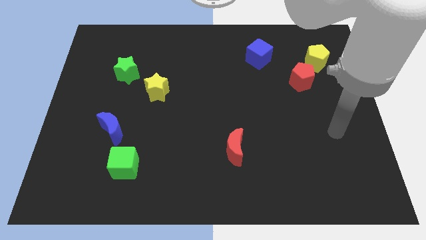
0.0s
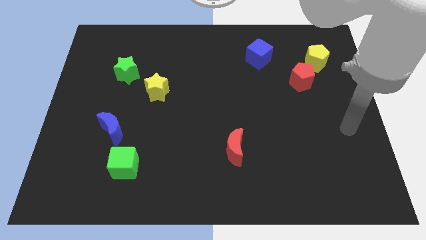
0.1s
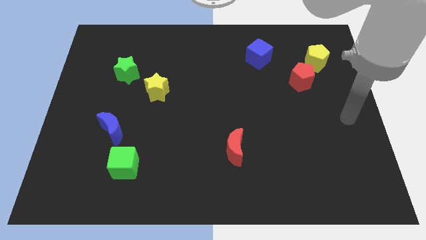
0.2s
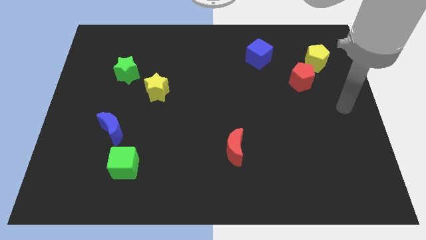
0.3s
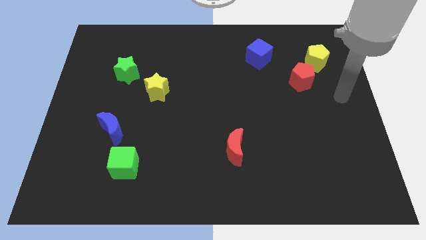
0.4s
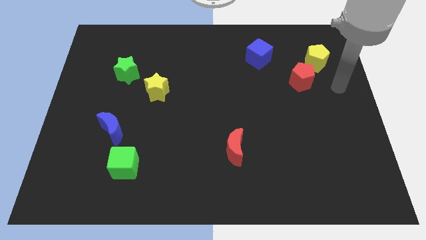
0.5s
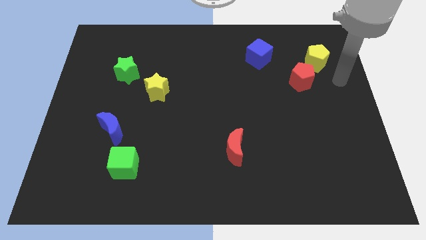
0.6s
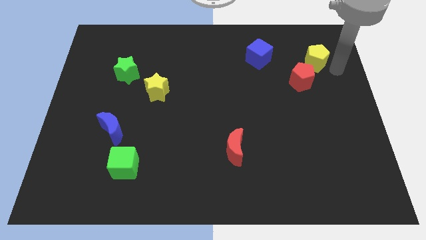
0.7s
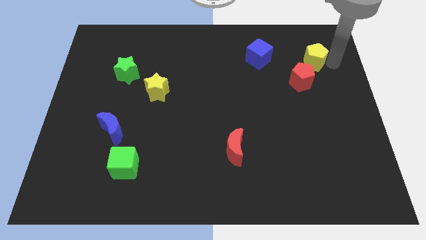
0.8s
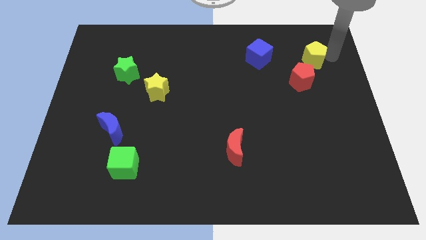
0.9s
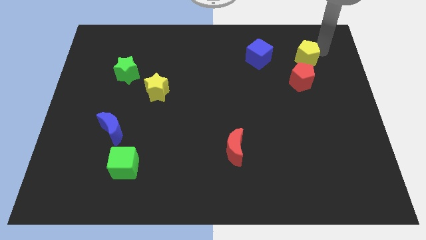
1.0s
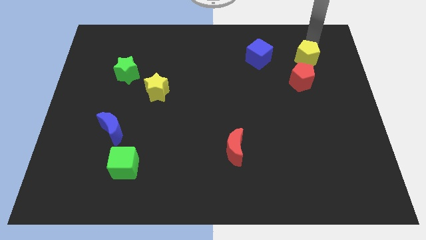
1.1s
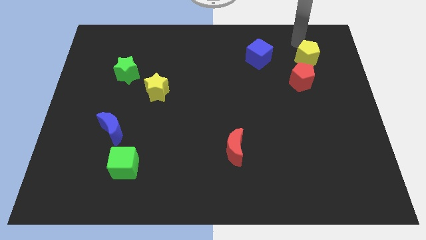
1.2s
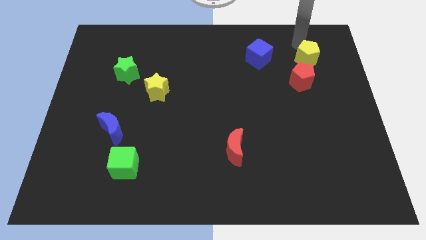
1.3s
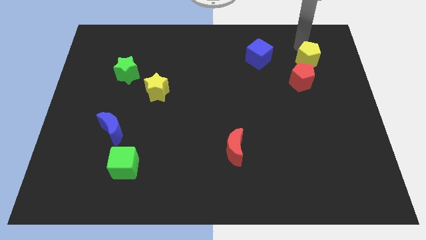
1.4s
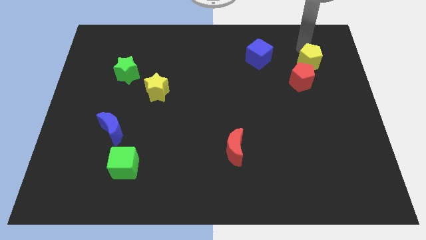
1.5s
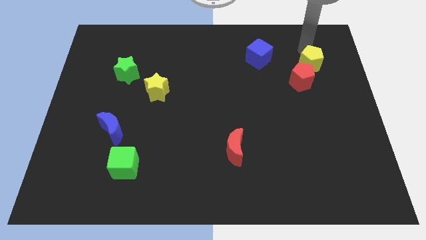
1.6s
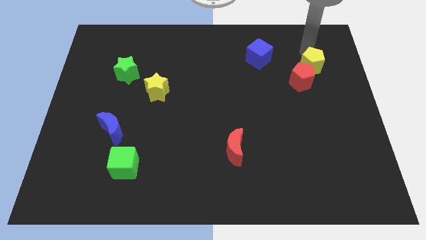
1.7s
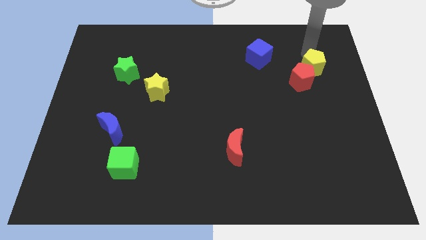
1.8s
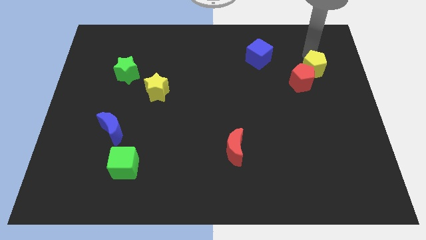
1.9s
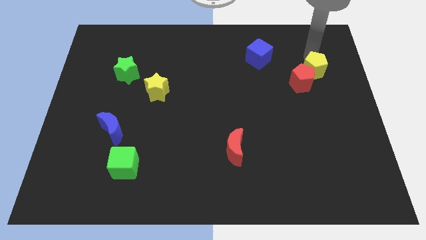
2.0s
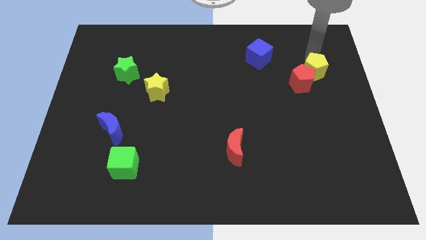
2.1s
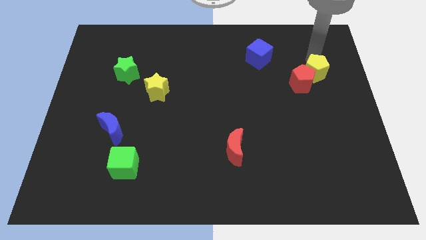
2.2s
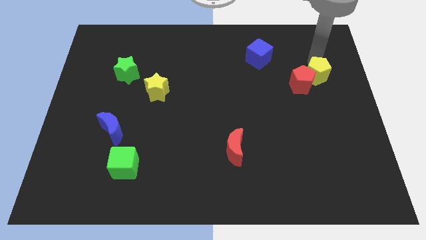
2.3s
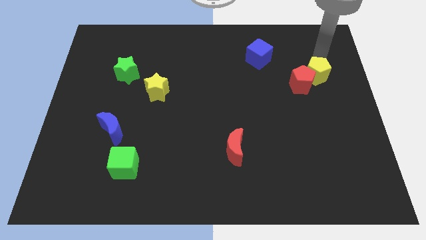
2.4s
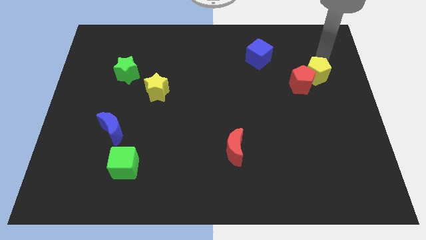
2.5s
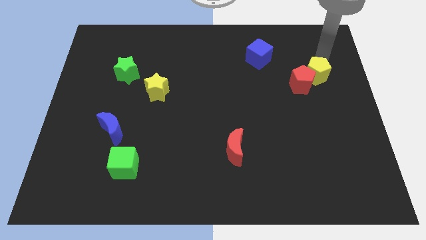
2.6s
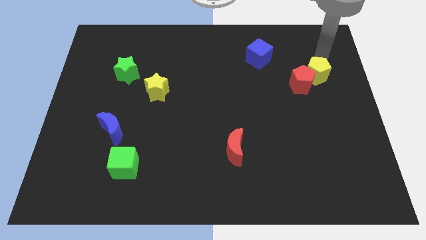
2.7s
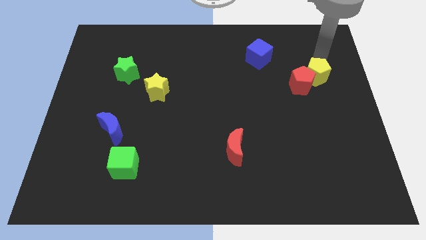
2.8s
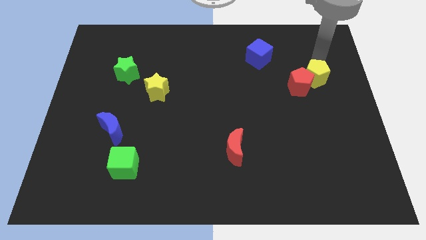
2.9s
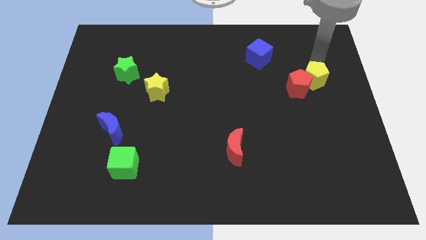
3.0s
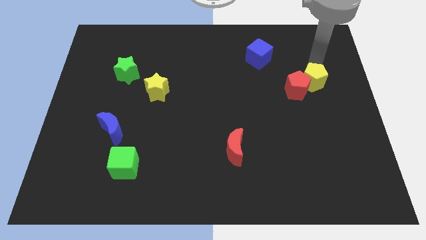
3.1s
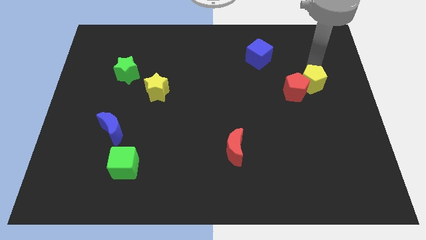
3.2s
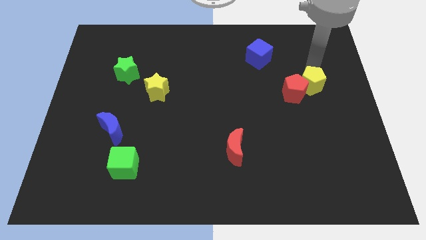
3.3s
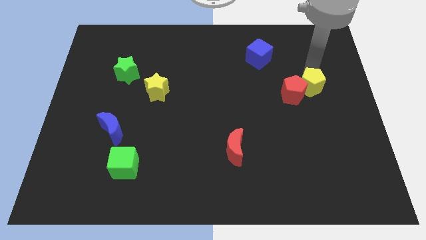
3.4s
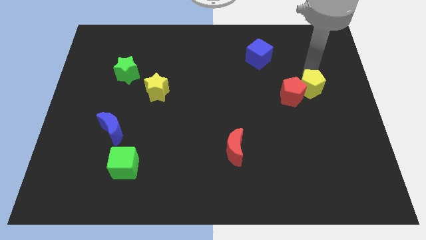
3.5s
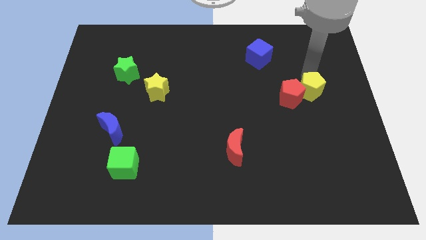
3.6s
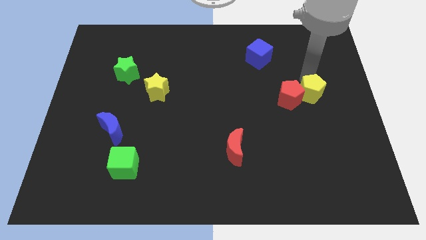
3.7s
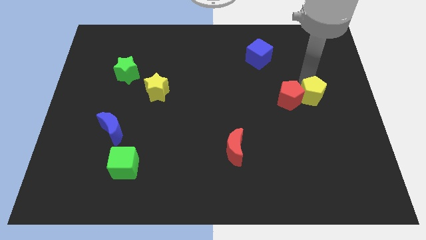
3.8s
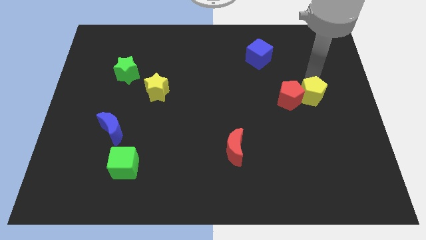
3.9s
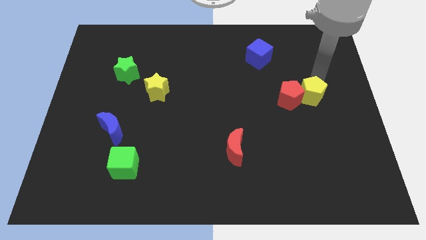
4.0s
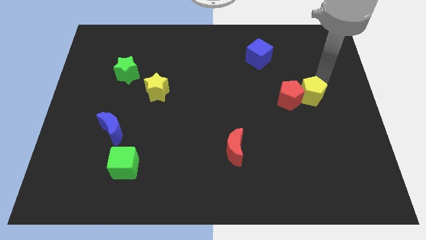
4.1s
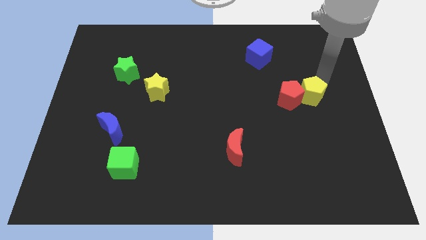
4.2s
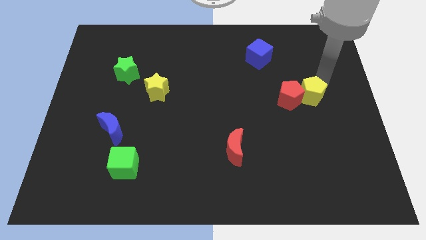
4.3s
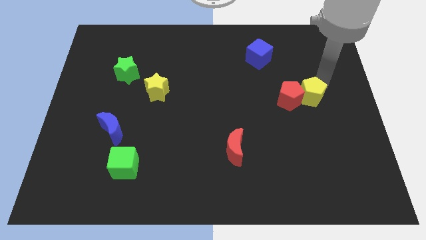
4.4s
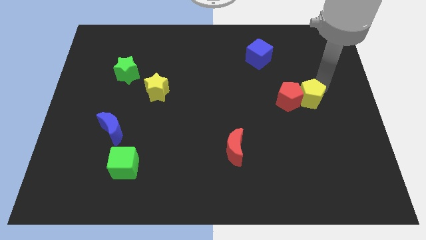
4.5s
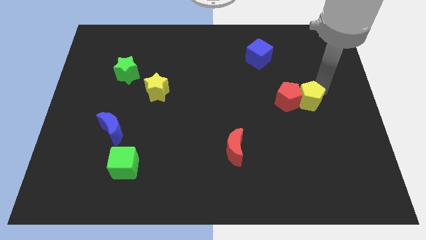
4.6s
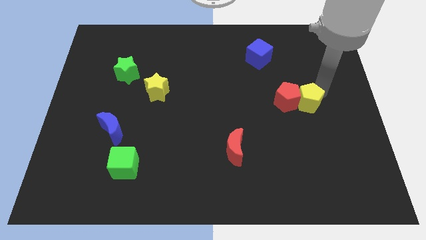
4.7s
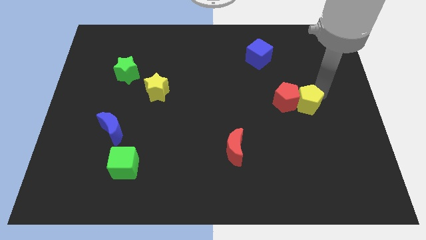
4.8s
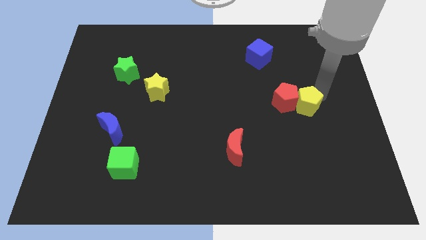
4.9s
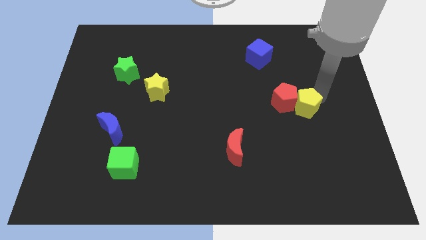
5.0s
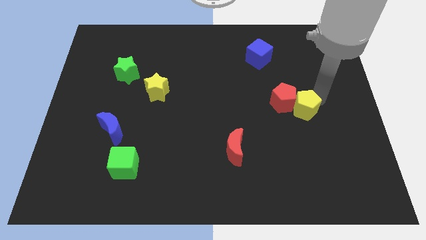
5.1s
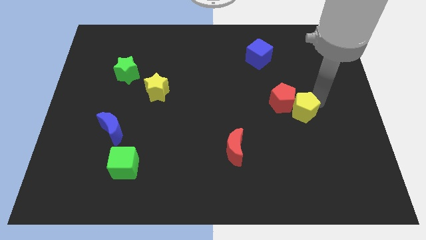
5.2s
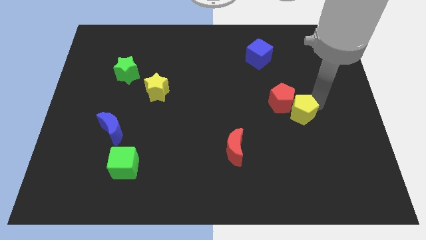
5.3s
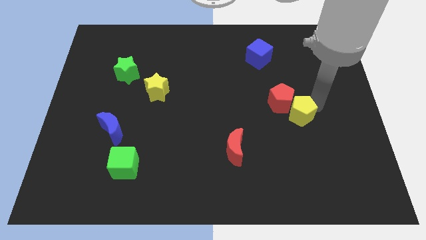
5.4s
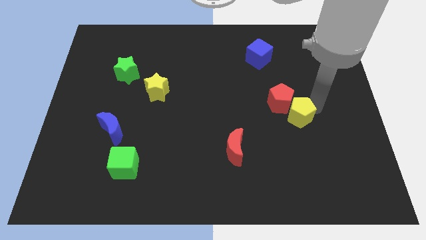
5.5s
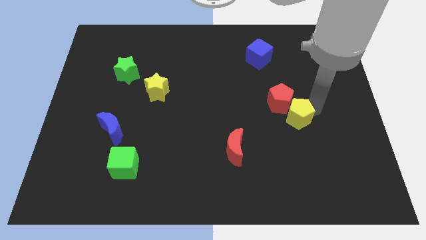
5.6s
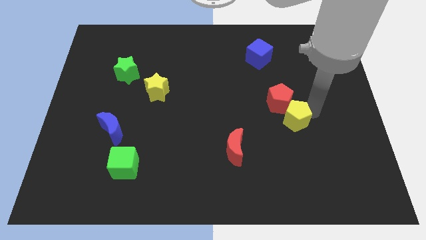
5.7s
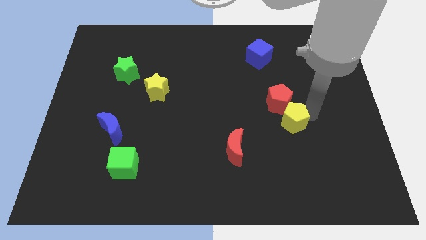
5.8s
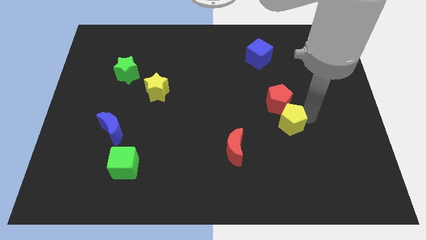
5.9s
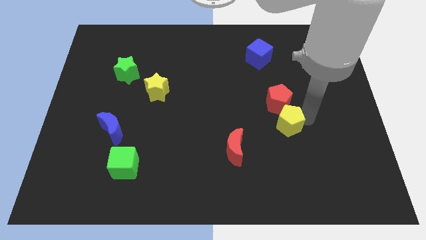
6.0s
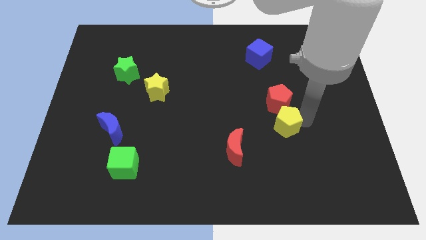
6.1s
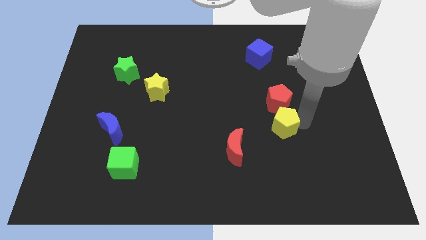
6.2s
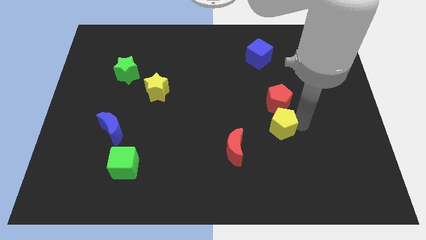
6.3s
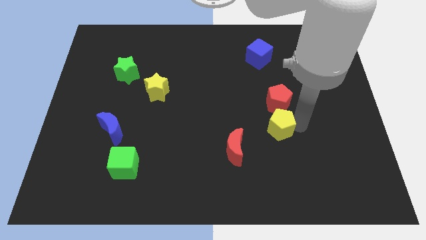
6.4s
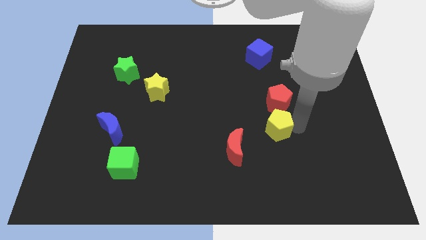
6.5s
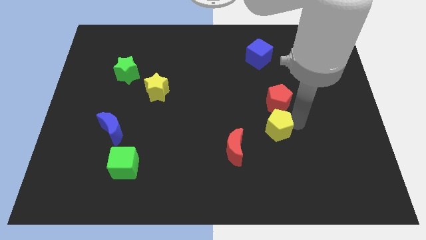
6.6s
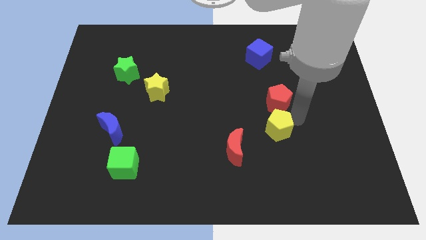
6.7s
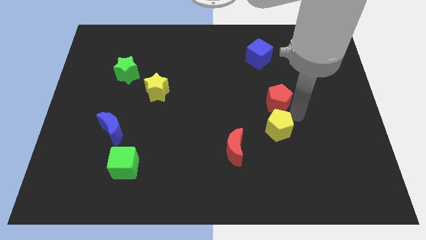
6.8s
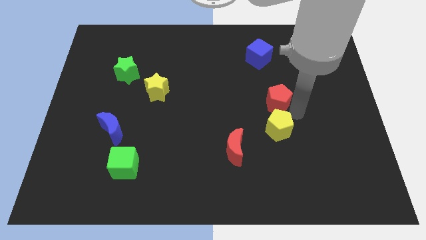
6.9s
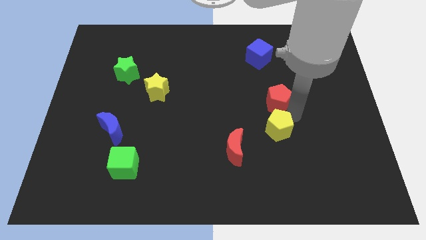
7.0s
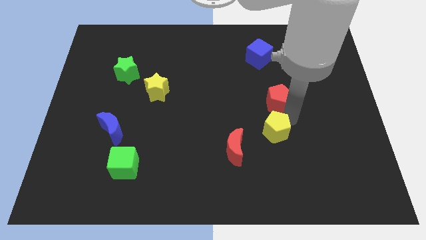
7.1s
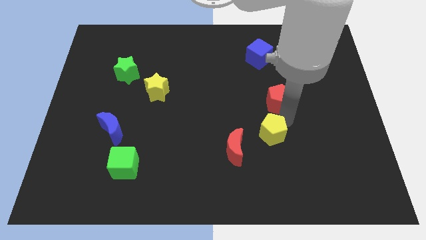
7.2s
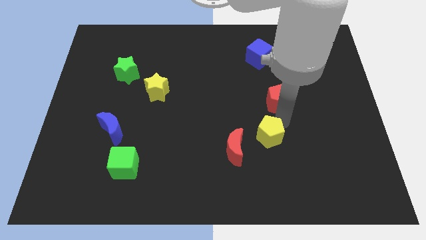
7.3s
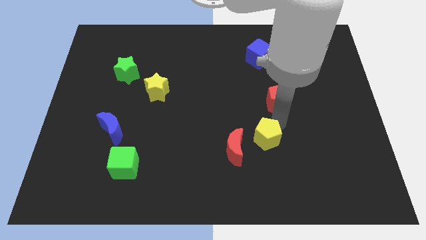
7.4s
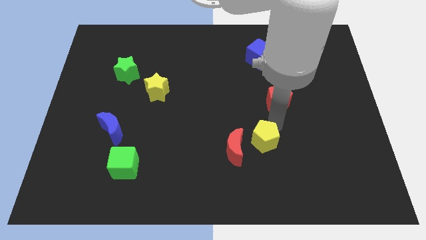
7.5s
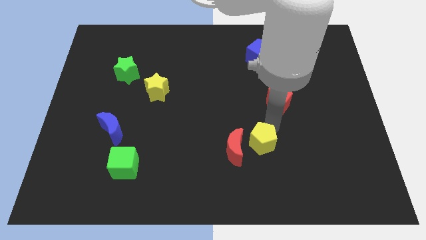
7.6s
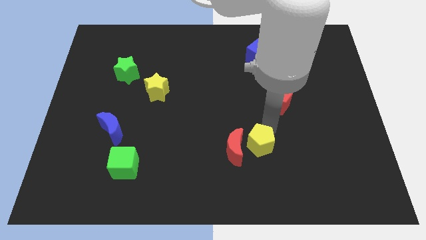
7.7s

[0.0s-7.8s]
slide the yellow pentagon to the bottom right of the red moon
